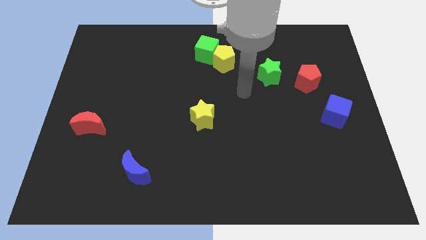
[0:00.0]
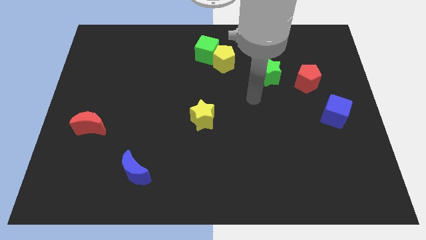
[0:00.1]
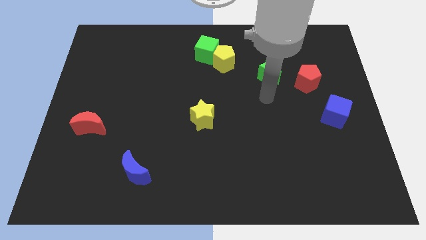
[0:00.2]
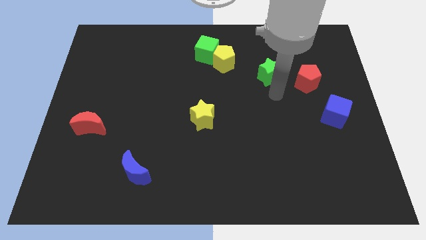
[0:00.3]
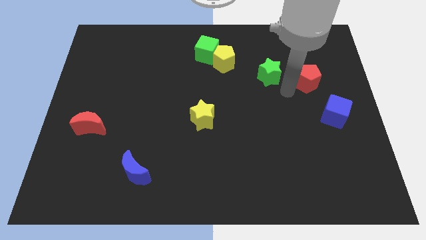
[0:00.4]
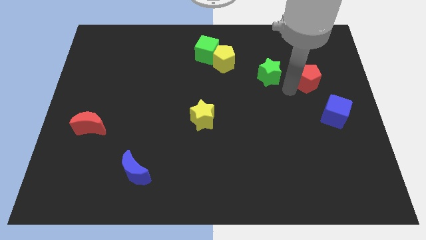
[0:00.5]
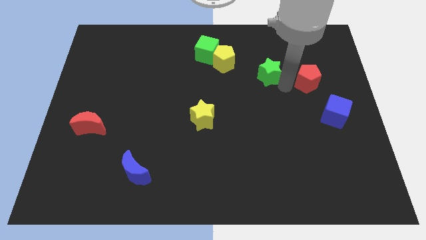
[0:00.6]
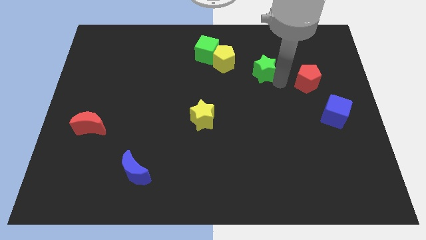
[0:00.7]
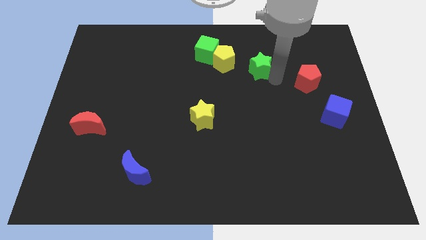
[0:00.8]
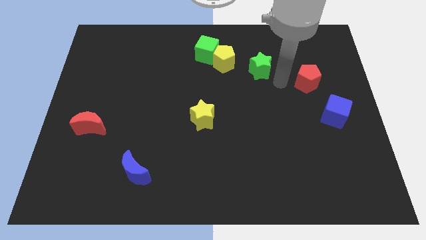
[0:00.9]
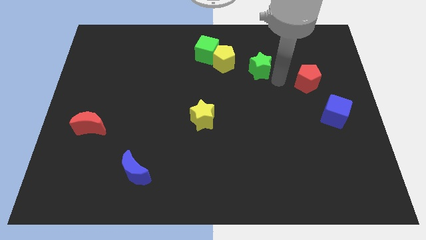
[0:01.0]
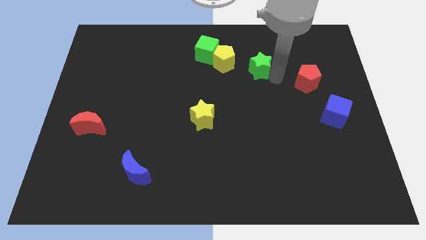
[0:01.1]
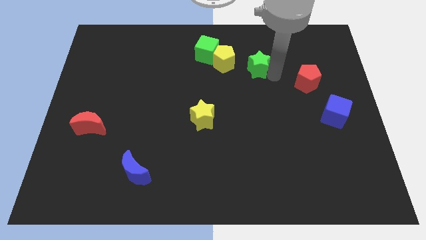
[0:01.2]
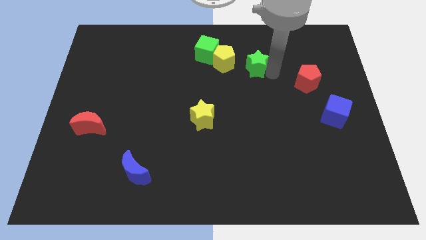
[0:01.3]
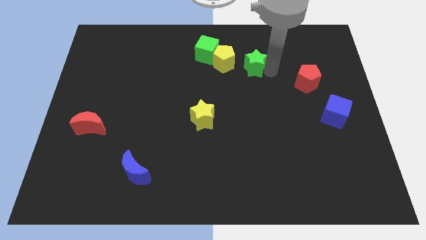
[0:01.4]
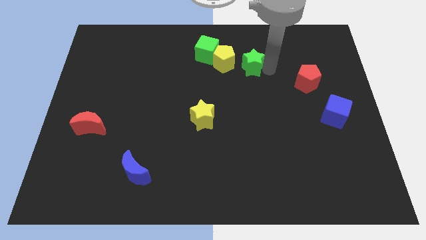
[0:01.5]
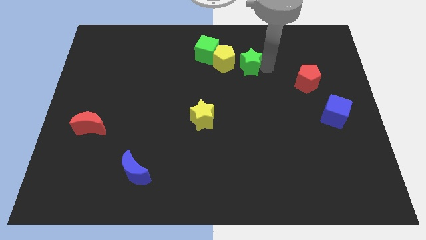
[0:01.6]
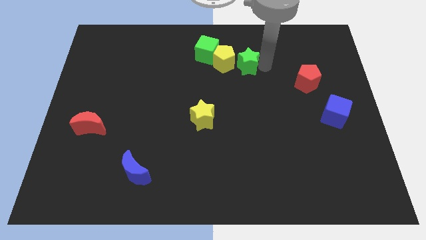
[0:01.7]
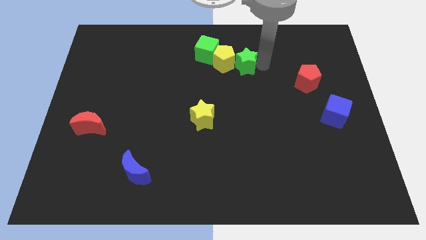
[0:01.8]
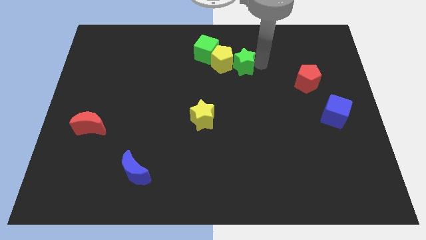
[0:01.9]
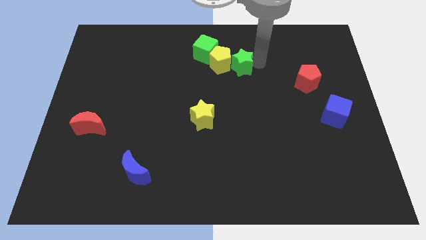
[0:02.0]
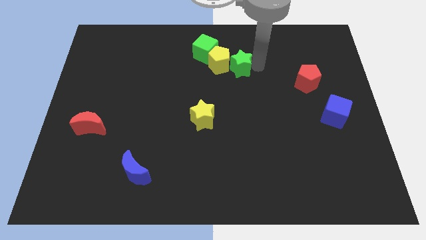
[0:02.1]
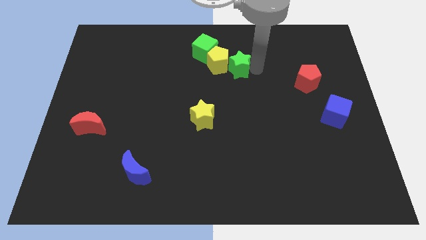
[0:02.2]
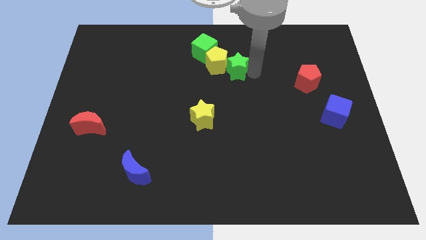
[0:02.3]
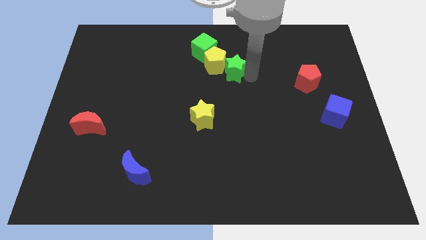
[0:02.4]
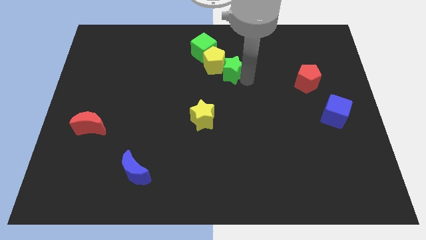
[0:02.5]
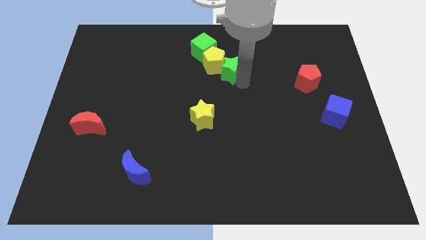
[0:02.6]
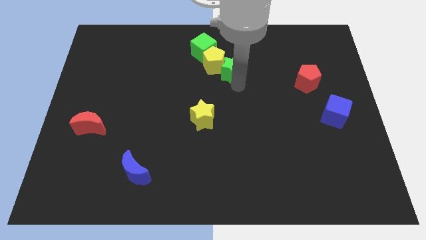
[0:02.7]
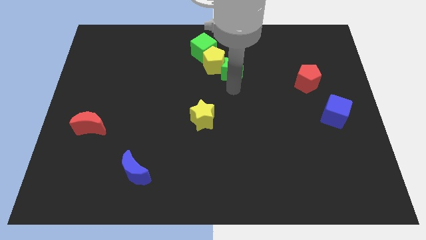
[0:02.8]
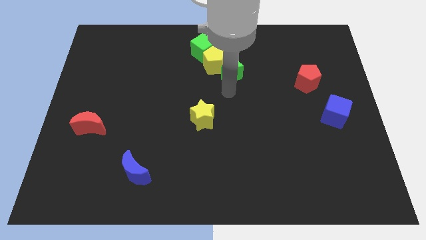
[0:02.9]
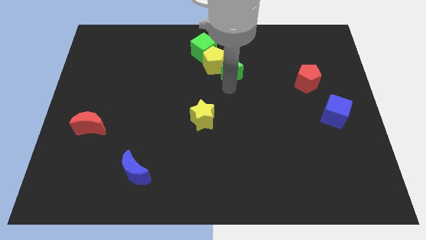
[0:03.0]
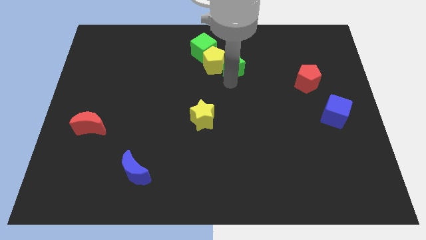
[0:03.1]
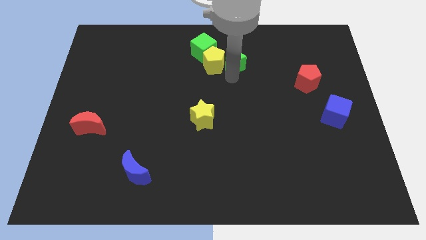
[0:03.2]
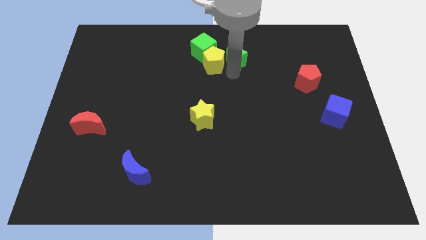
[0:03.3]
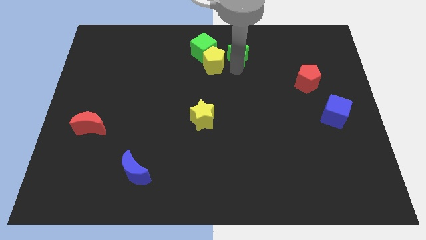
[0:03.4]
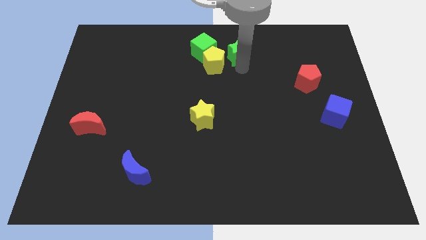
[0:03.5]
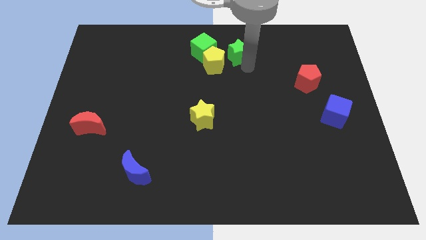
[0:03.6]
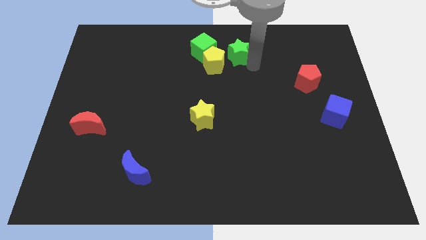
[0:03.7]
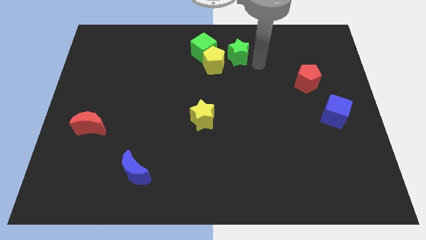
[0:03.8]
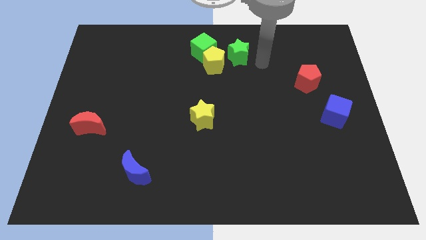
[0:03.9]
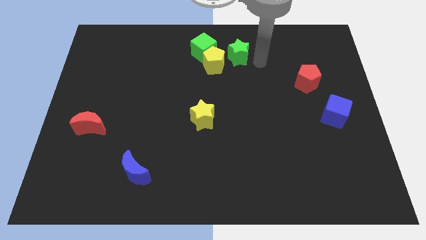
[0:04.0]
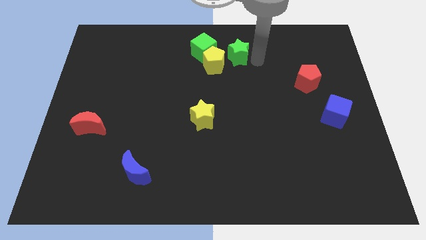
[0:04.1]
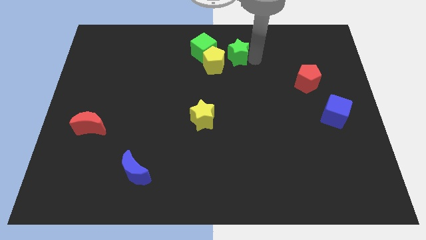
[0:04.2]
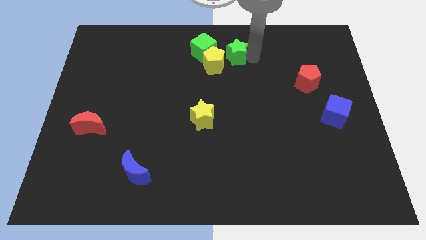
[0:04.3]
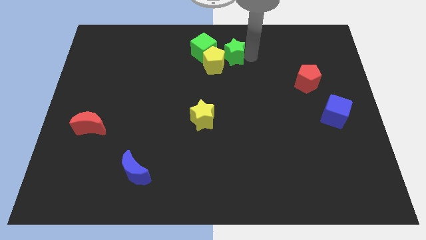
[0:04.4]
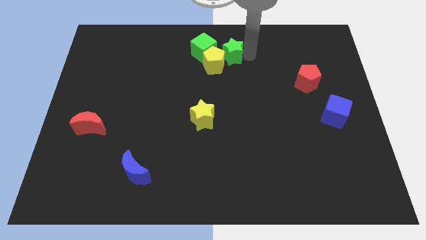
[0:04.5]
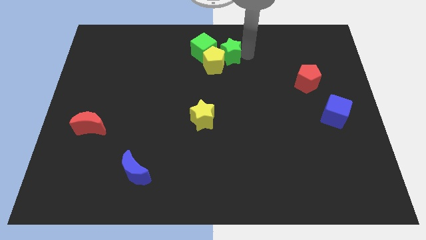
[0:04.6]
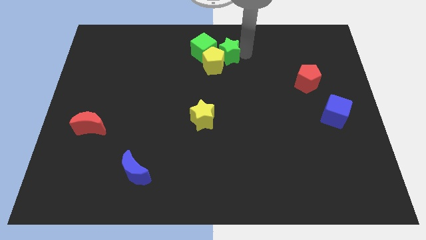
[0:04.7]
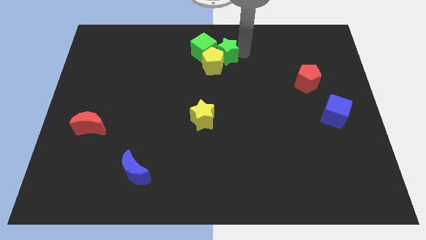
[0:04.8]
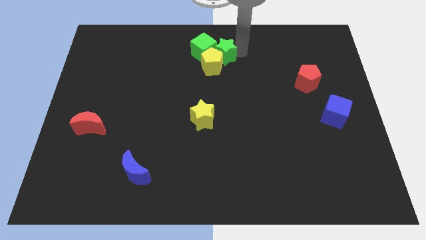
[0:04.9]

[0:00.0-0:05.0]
slide the green star close to the green cube

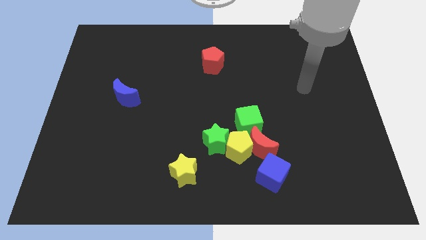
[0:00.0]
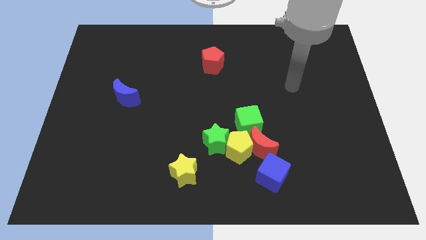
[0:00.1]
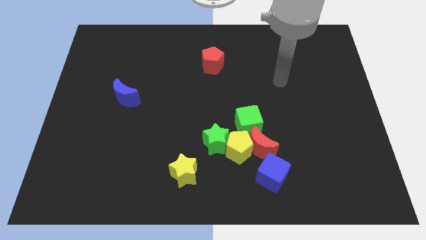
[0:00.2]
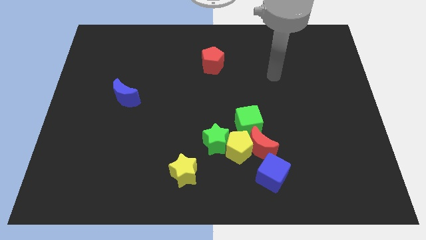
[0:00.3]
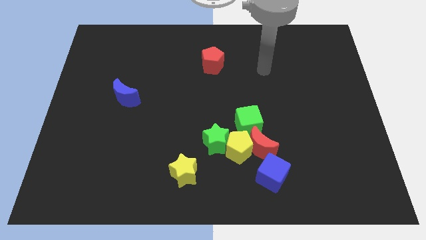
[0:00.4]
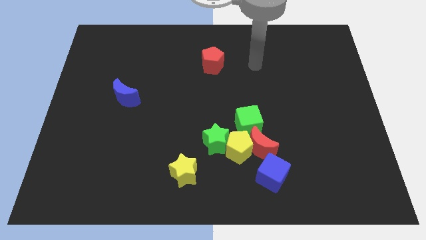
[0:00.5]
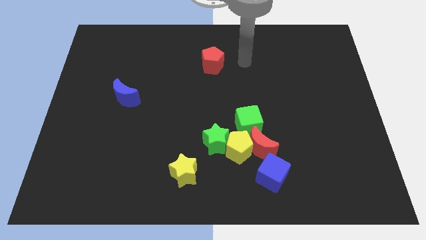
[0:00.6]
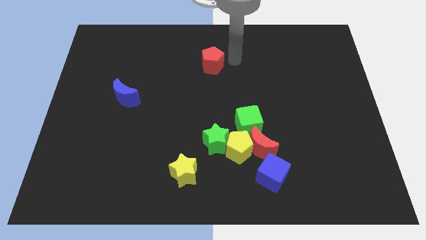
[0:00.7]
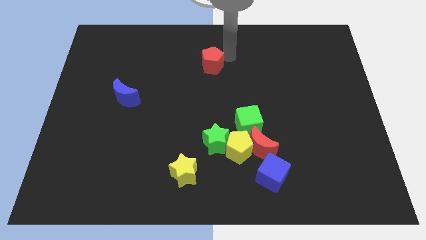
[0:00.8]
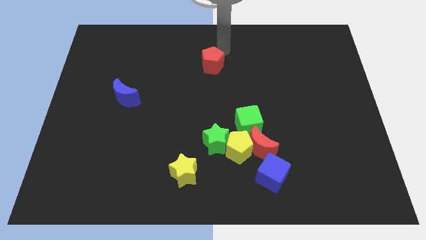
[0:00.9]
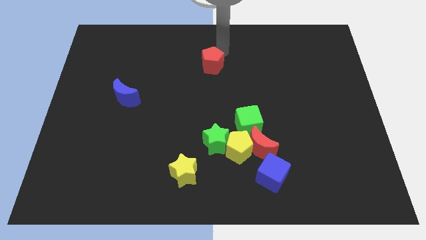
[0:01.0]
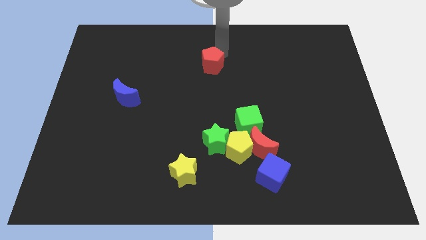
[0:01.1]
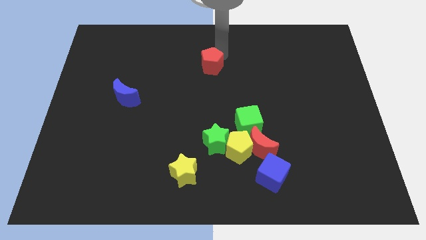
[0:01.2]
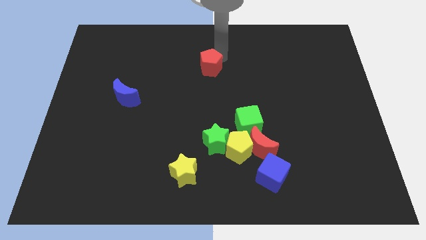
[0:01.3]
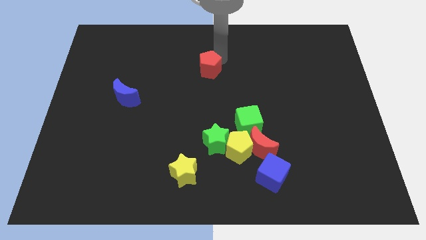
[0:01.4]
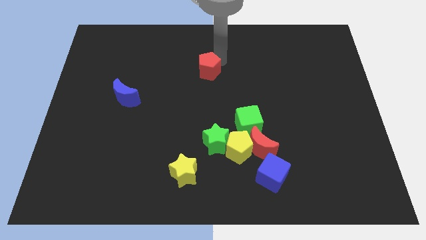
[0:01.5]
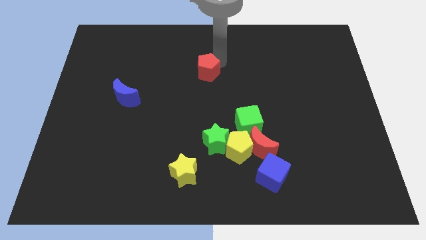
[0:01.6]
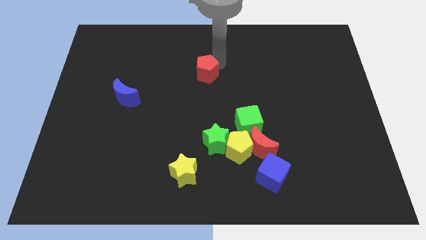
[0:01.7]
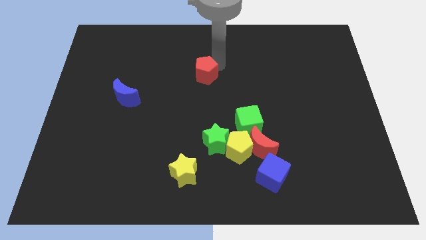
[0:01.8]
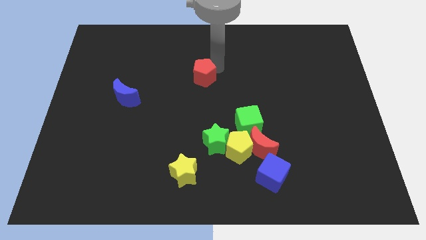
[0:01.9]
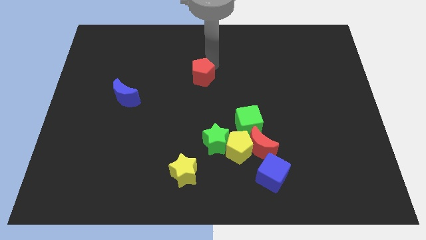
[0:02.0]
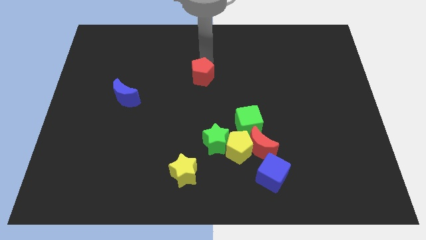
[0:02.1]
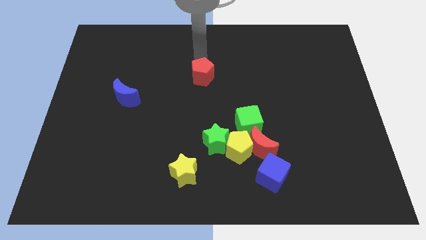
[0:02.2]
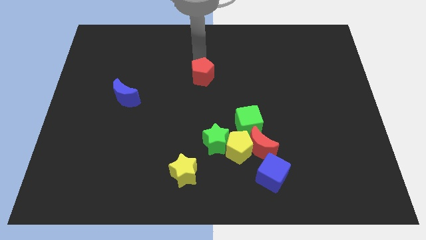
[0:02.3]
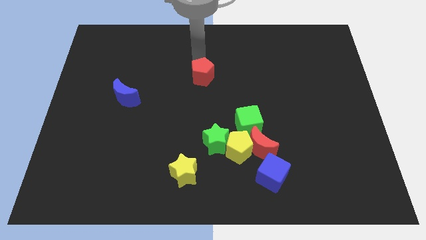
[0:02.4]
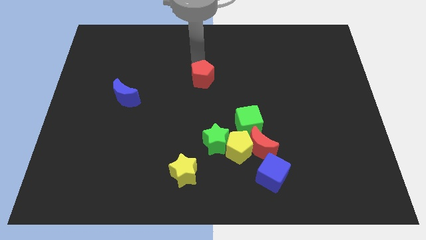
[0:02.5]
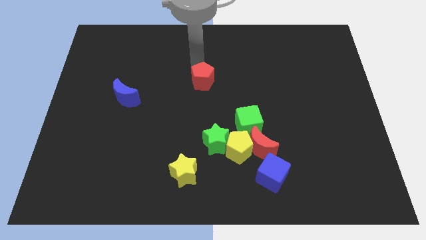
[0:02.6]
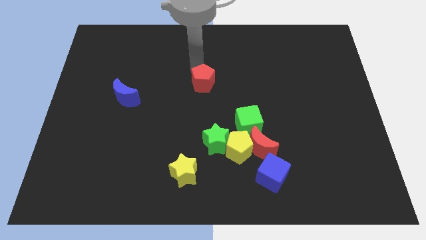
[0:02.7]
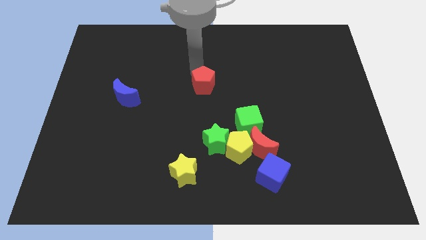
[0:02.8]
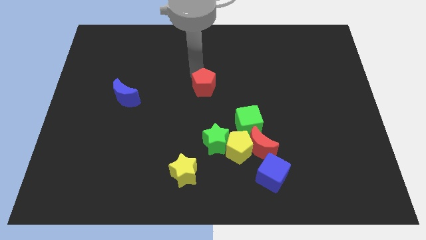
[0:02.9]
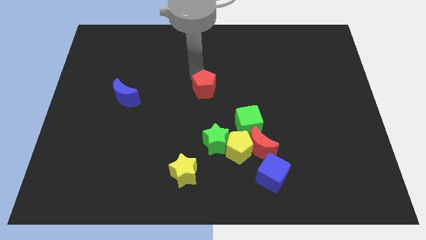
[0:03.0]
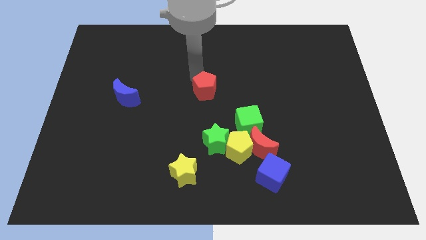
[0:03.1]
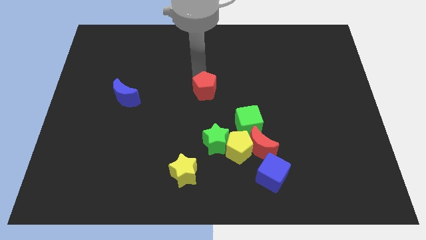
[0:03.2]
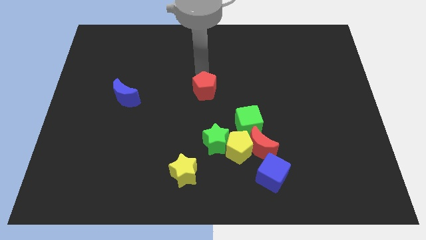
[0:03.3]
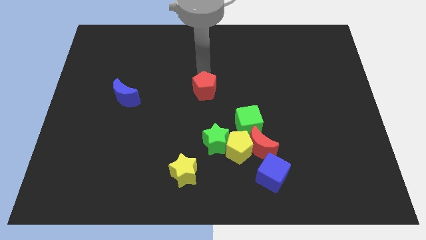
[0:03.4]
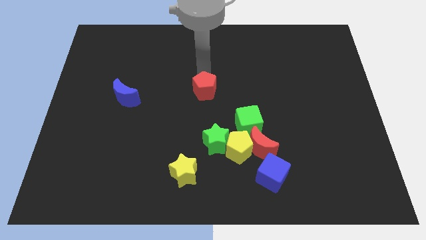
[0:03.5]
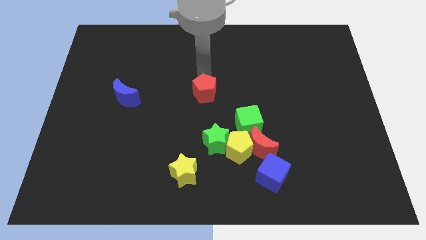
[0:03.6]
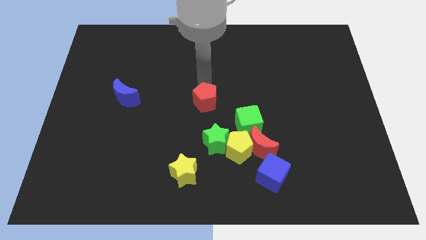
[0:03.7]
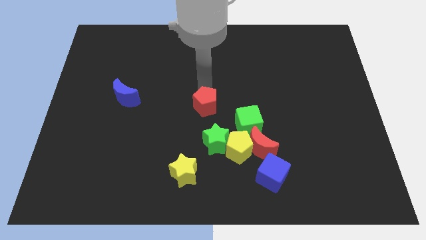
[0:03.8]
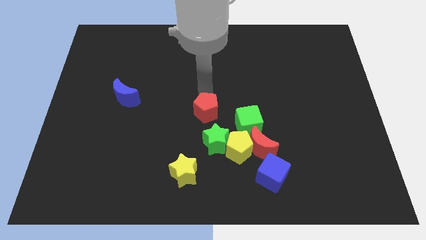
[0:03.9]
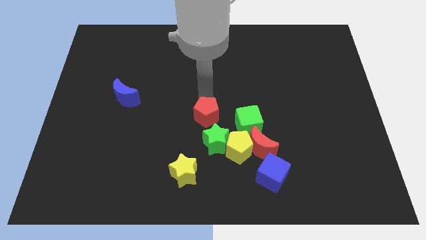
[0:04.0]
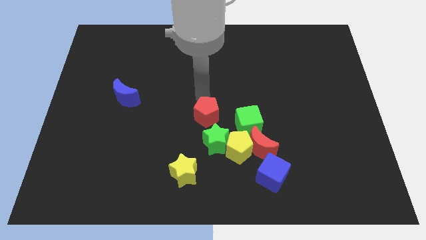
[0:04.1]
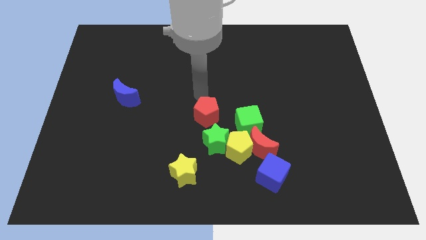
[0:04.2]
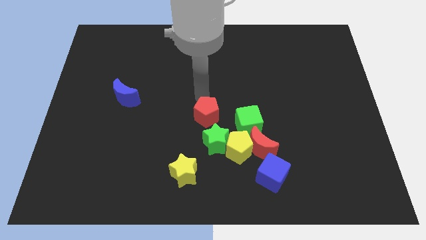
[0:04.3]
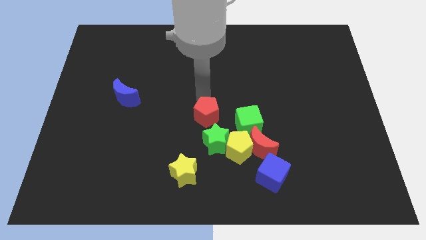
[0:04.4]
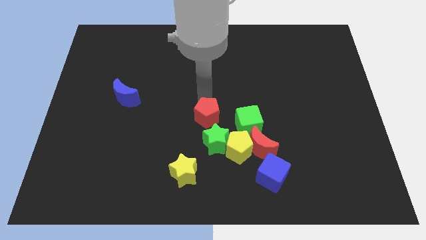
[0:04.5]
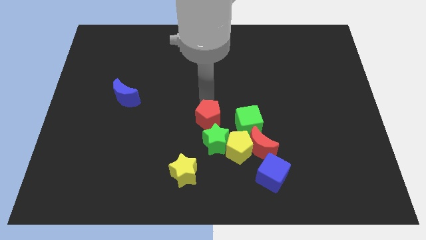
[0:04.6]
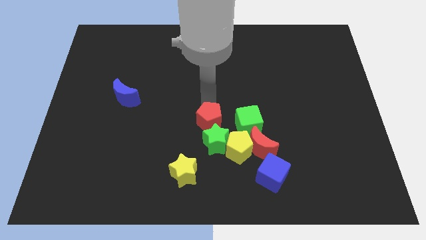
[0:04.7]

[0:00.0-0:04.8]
put the red pentagon close to the green star
